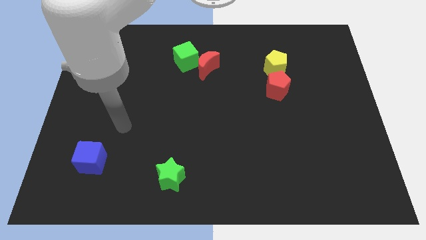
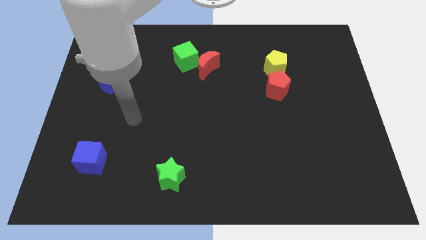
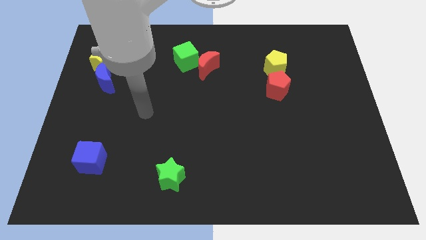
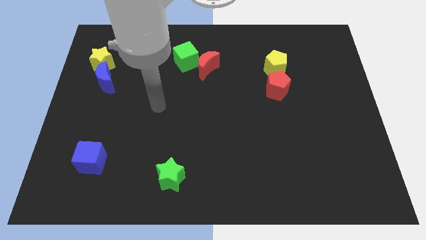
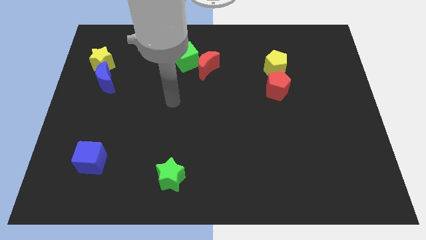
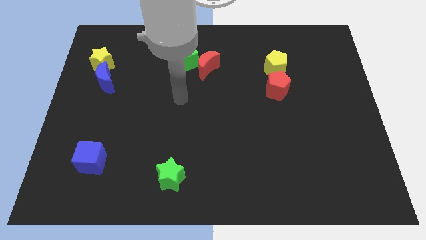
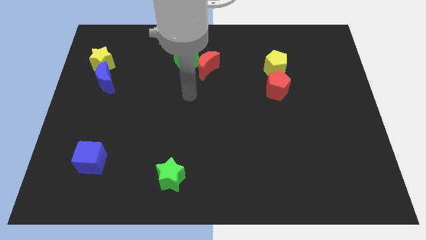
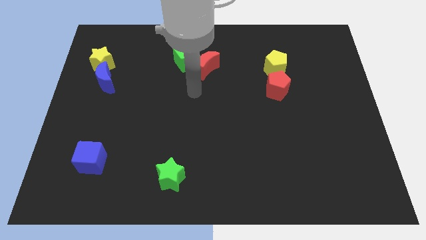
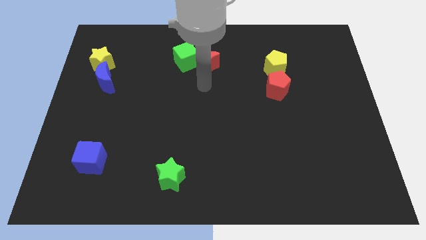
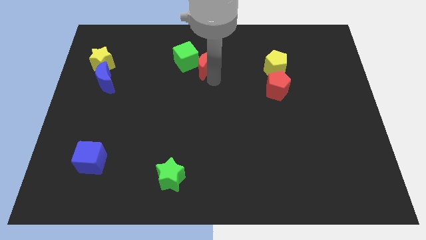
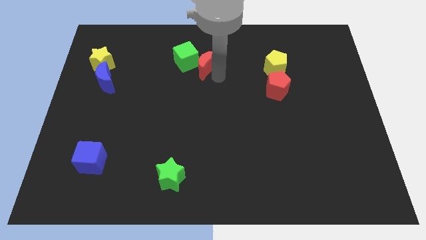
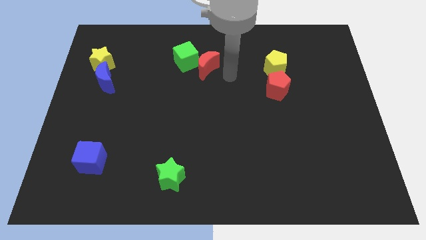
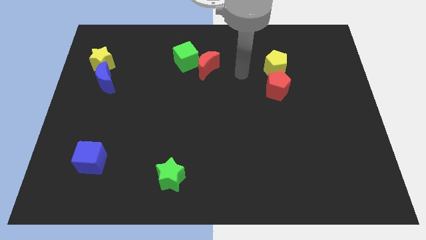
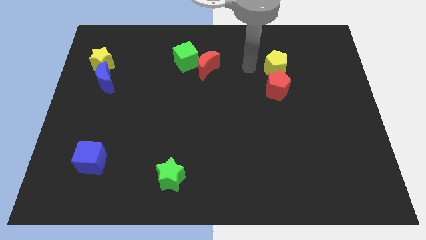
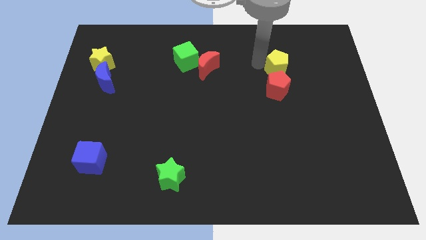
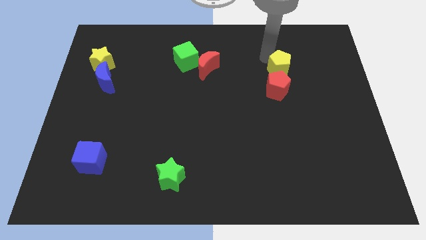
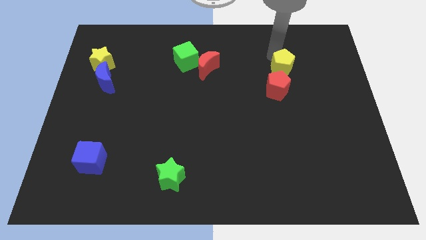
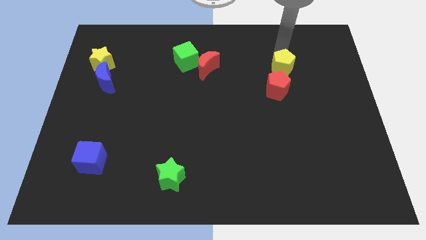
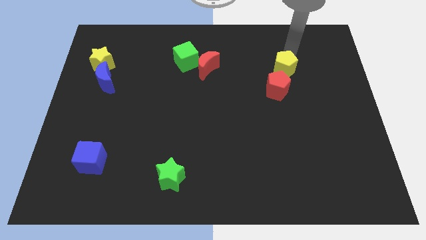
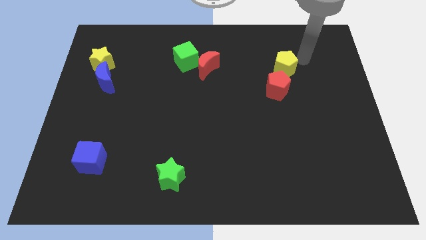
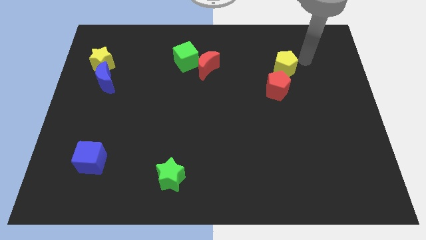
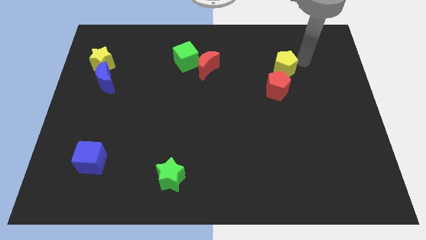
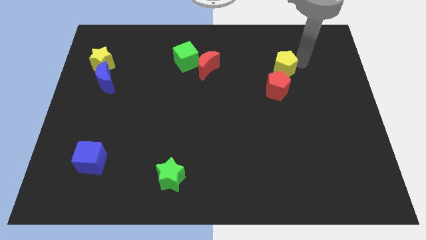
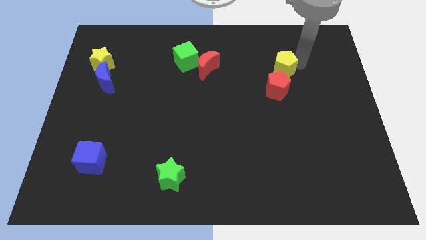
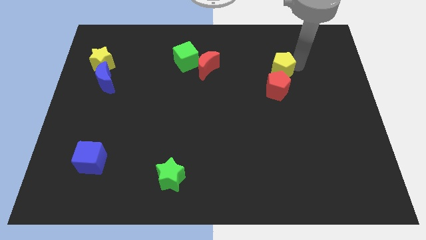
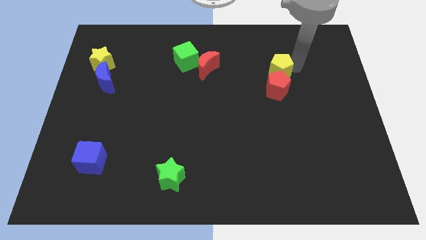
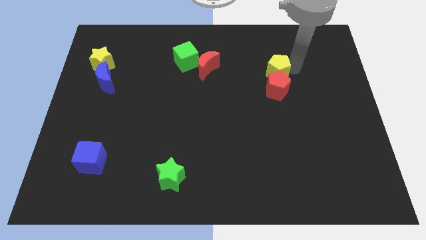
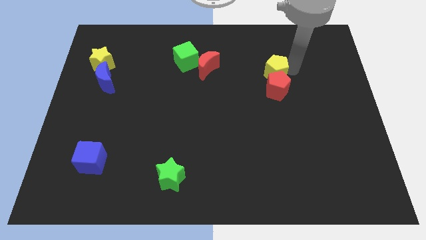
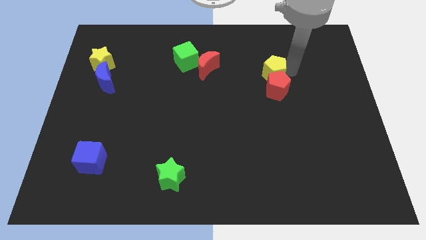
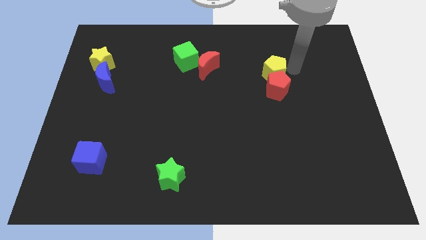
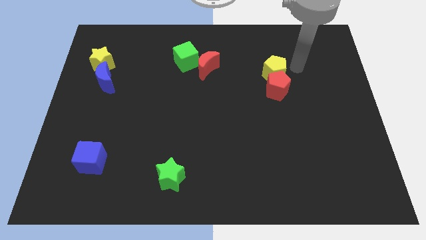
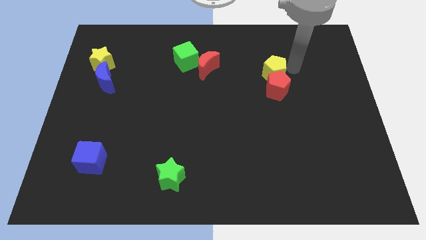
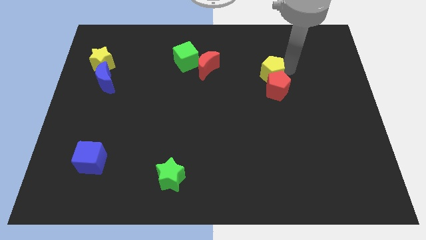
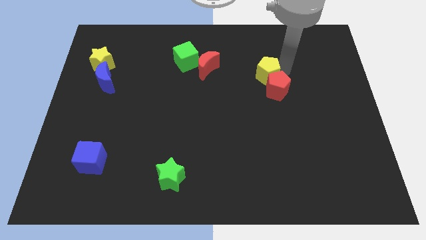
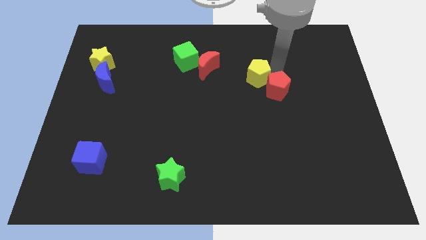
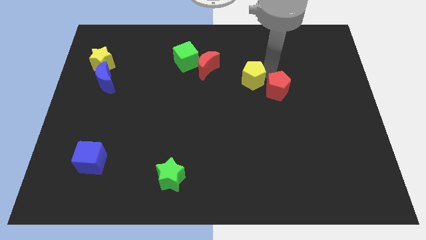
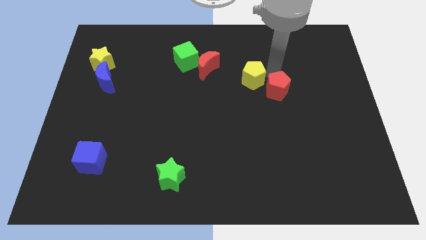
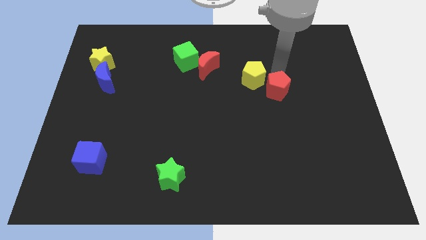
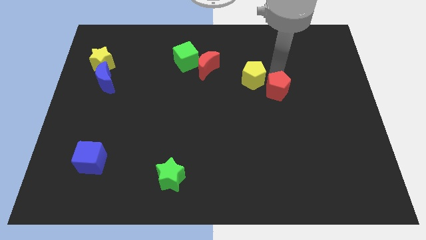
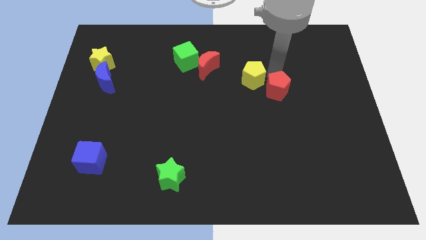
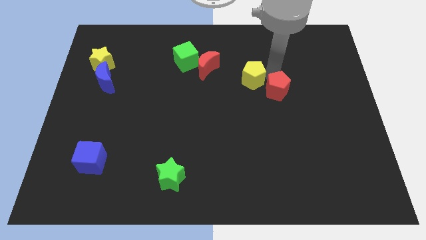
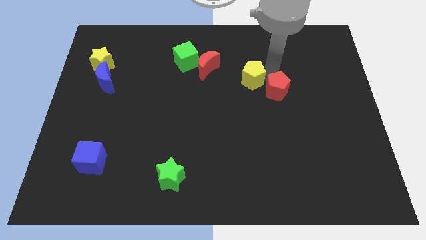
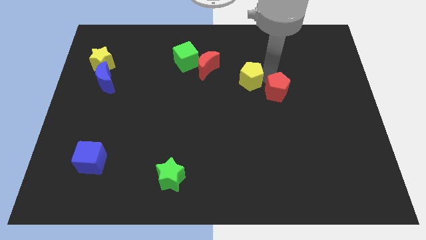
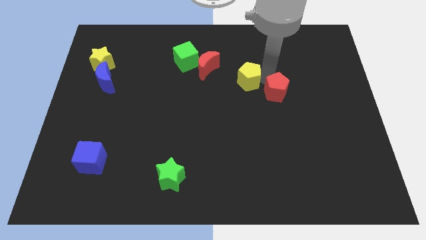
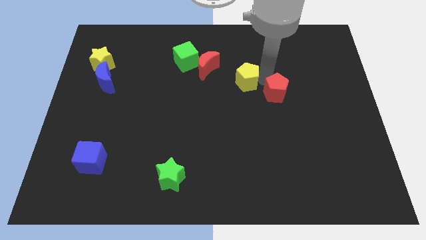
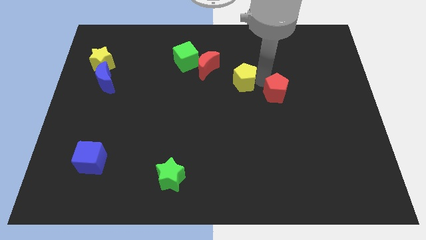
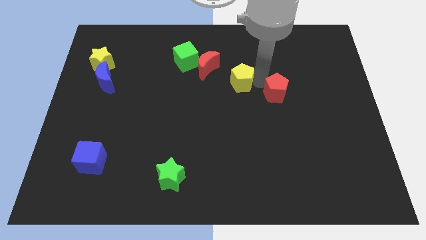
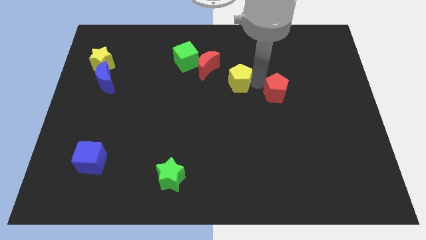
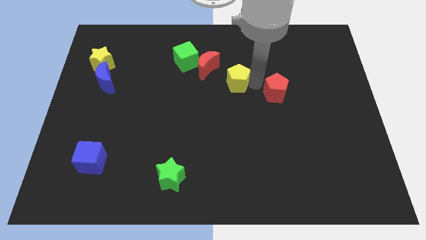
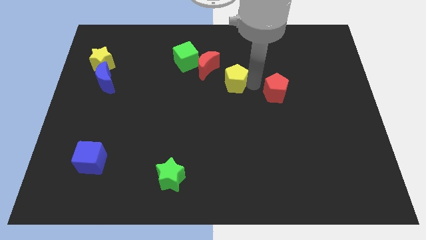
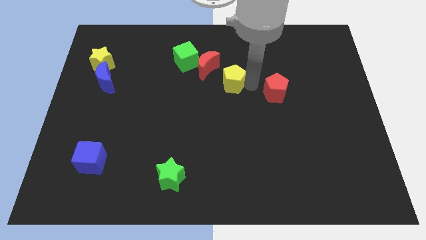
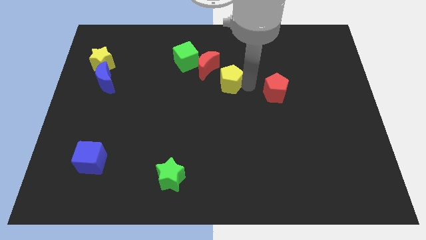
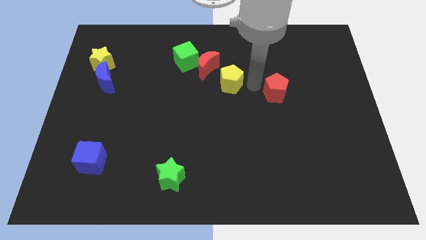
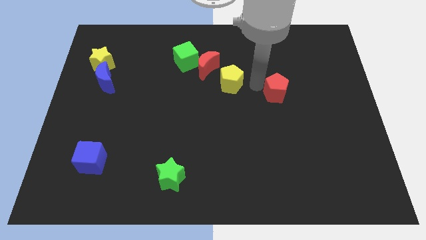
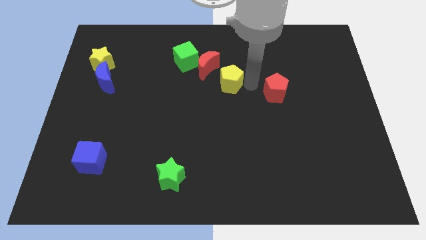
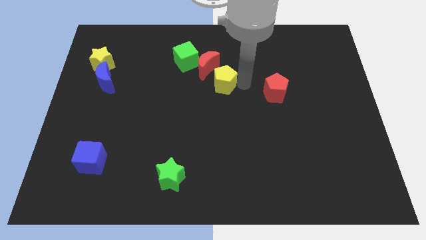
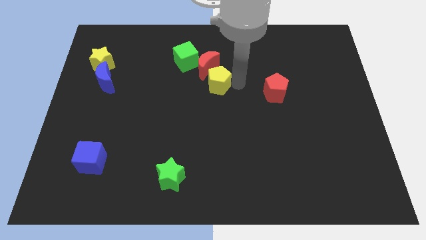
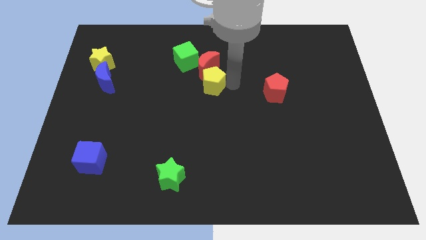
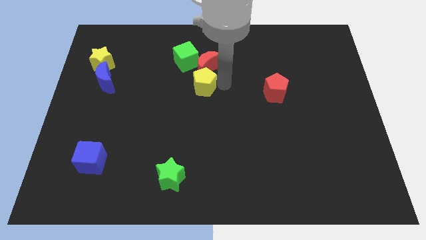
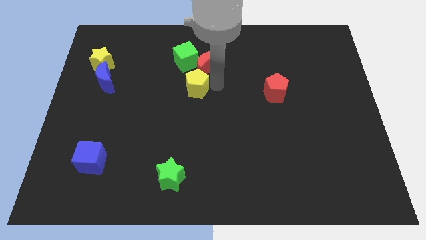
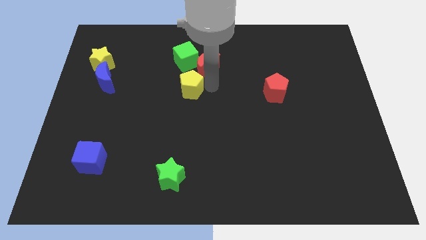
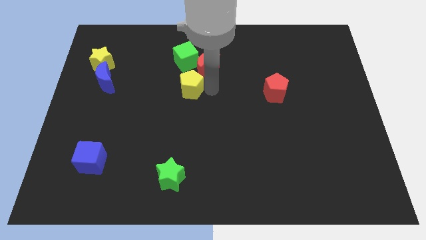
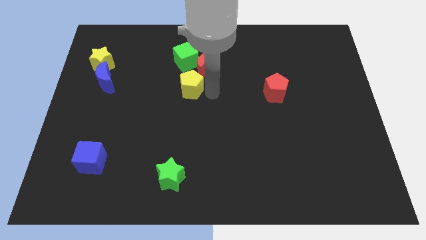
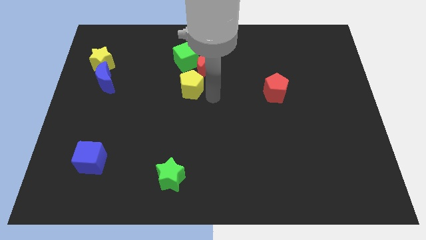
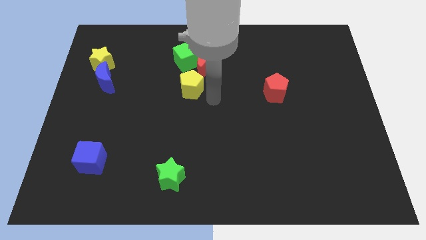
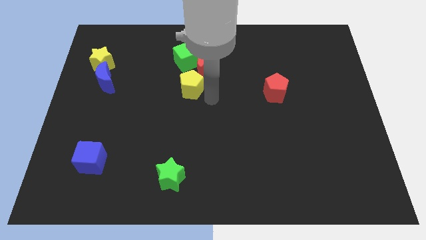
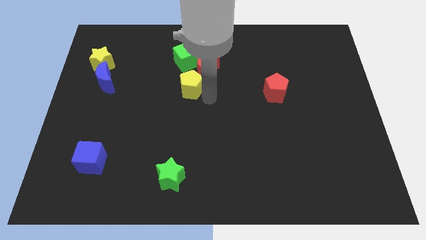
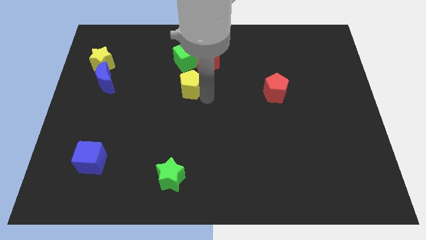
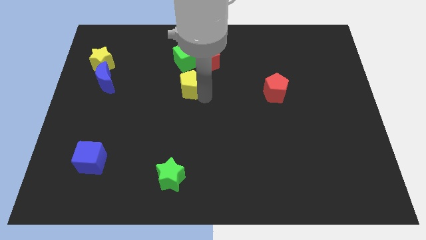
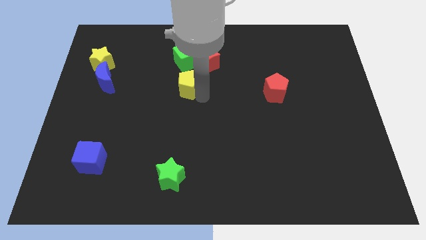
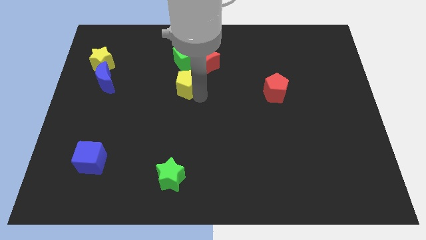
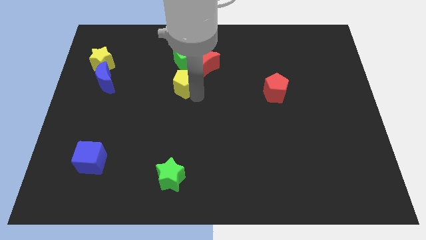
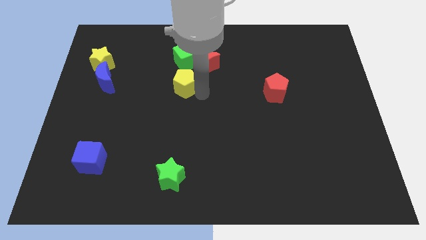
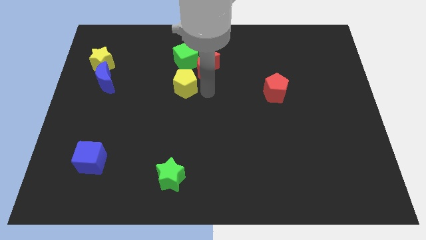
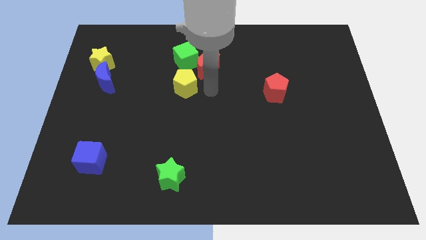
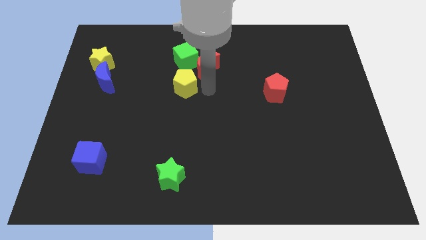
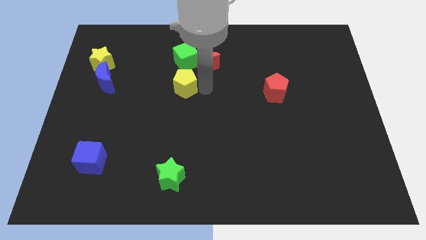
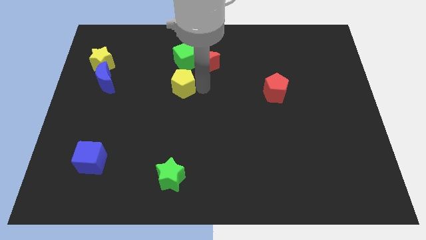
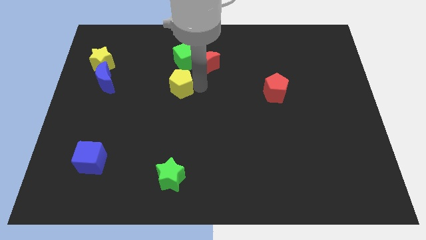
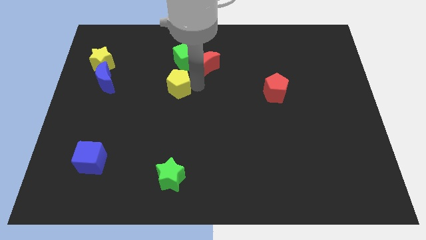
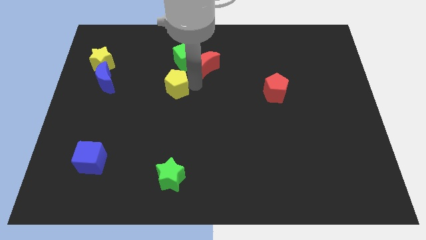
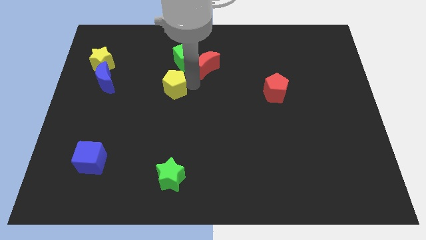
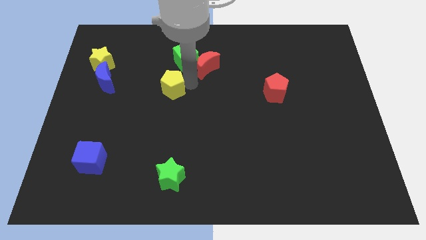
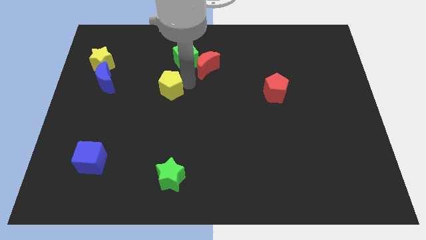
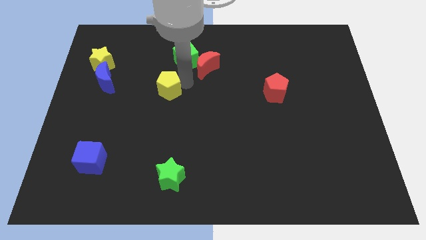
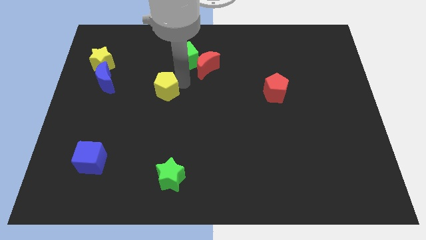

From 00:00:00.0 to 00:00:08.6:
slide the yellow pentagon just right of the blue moon
